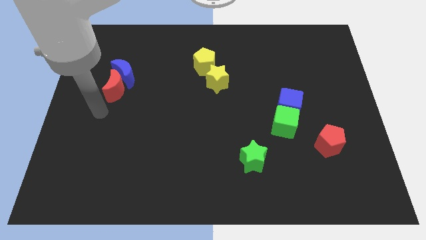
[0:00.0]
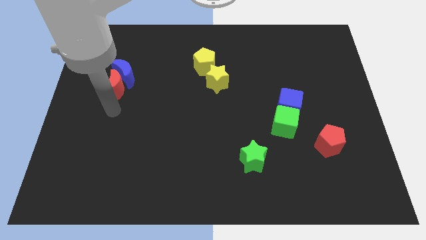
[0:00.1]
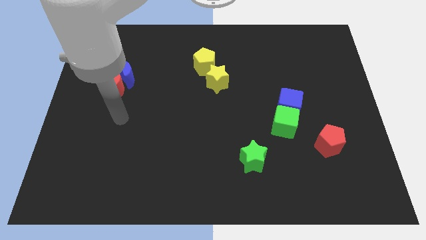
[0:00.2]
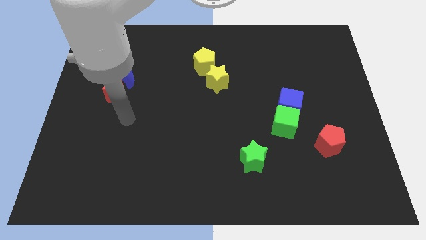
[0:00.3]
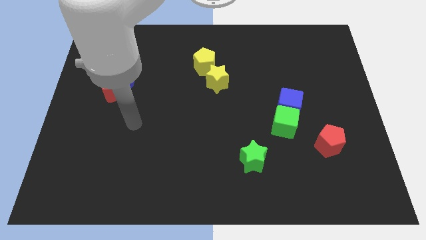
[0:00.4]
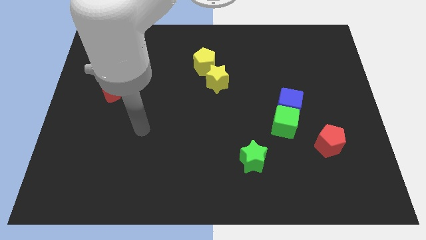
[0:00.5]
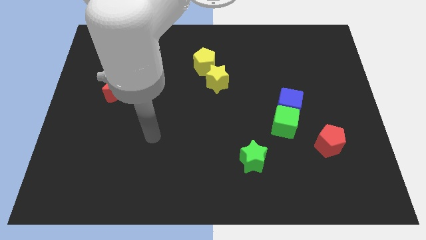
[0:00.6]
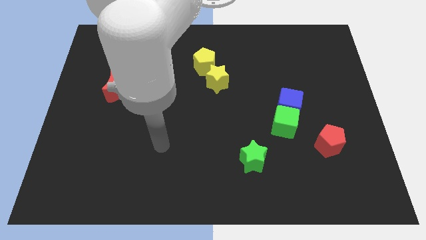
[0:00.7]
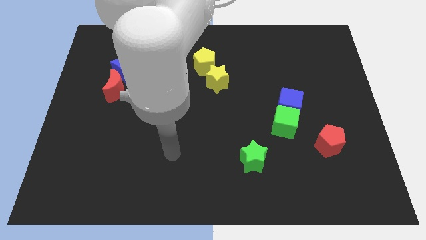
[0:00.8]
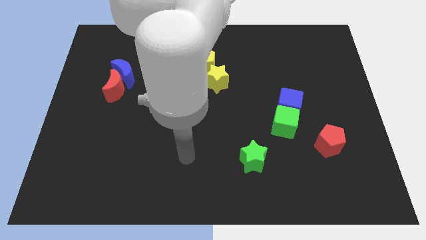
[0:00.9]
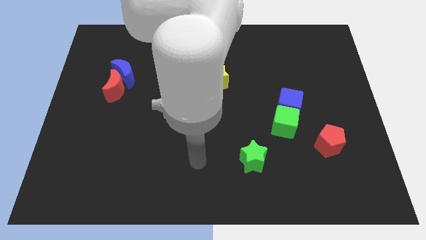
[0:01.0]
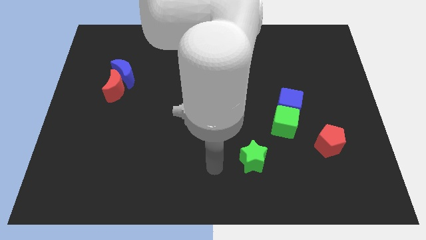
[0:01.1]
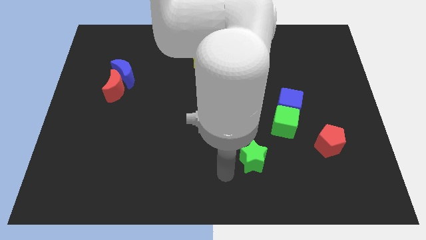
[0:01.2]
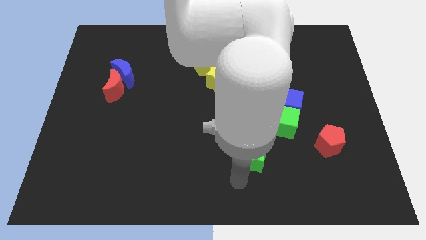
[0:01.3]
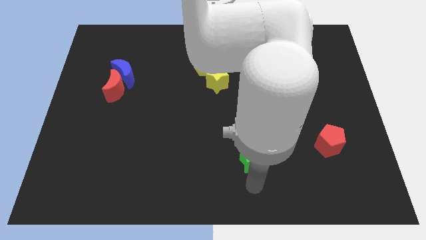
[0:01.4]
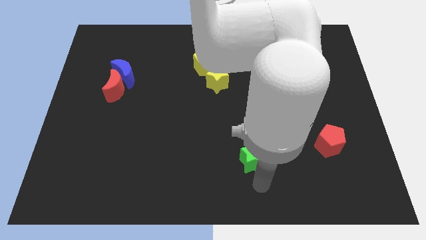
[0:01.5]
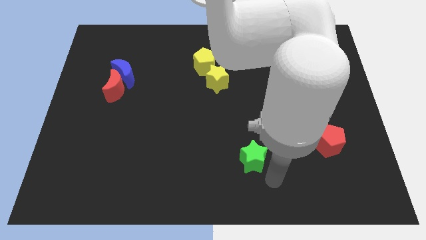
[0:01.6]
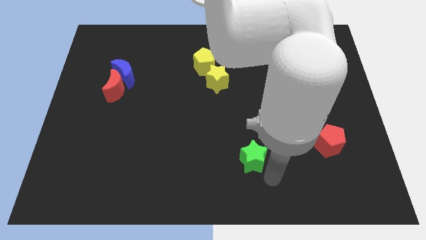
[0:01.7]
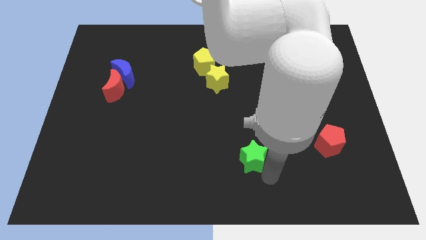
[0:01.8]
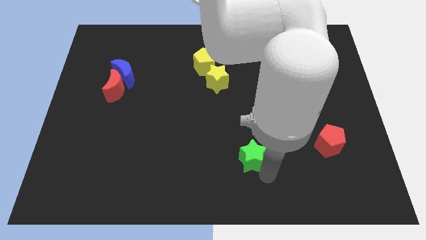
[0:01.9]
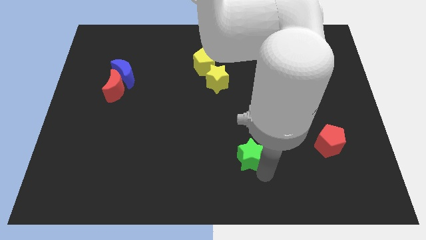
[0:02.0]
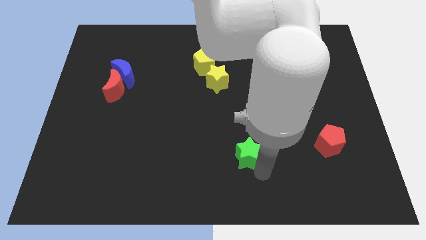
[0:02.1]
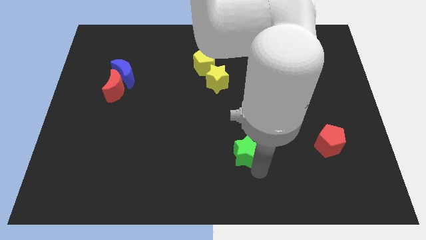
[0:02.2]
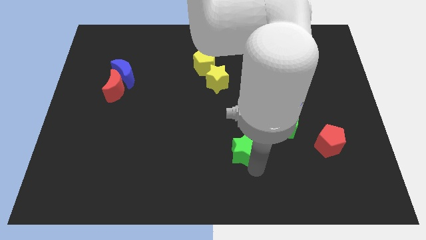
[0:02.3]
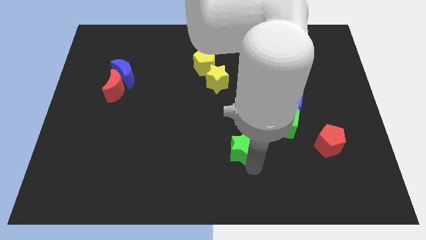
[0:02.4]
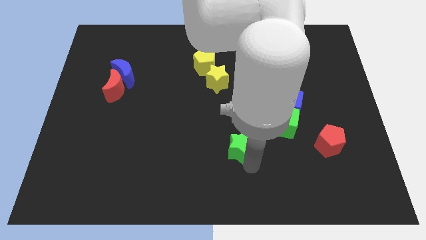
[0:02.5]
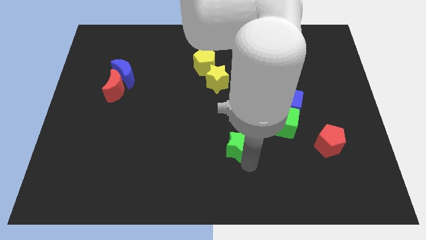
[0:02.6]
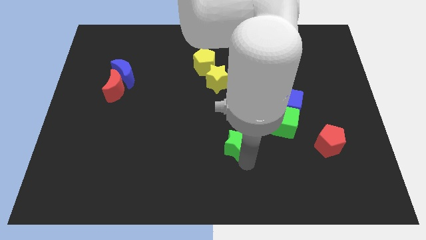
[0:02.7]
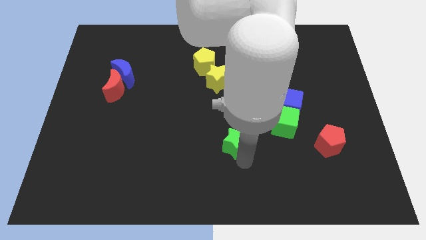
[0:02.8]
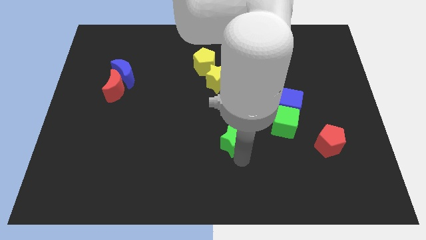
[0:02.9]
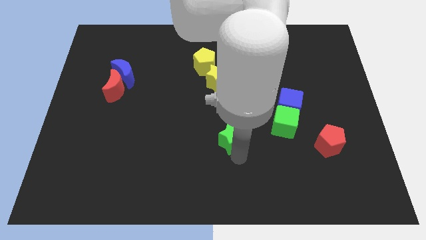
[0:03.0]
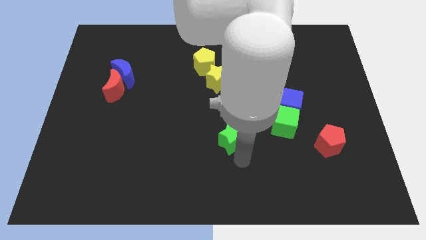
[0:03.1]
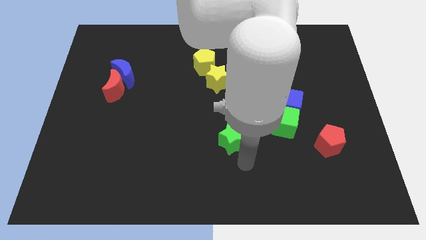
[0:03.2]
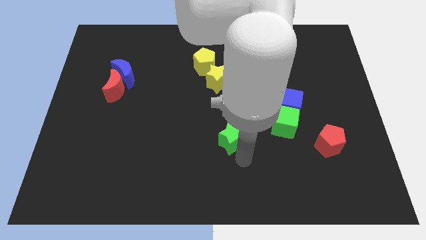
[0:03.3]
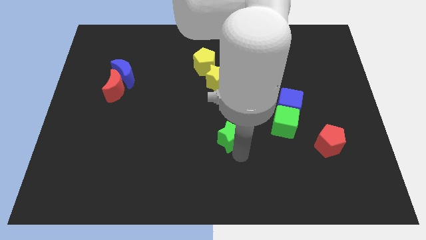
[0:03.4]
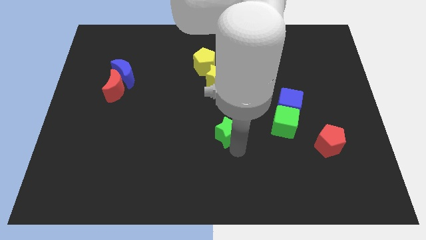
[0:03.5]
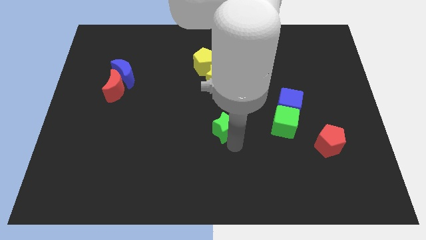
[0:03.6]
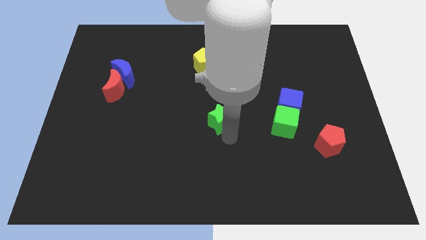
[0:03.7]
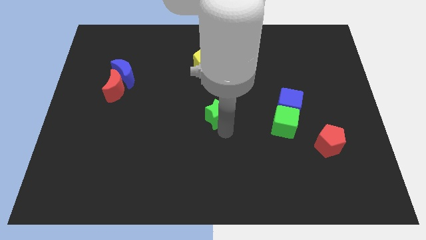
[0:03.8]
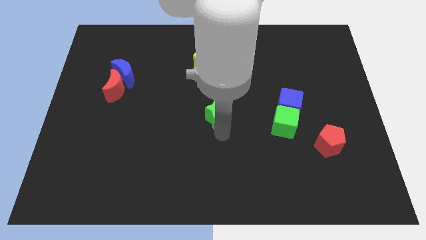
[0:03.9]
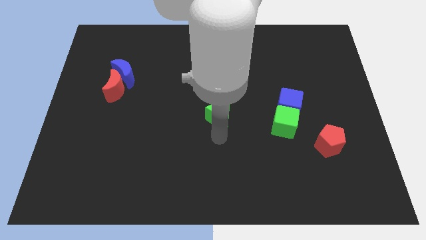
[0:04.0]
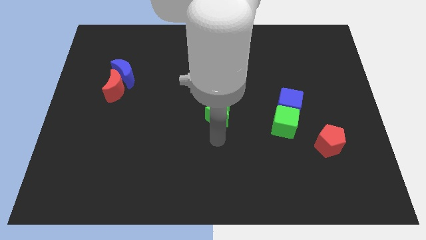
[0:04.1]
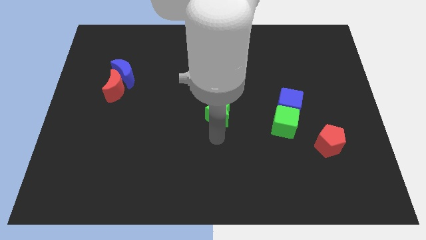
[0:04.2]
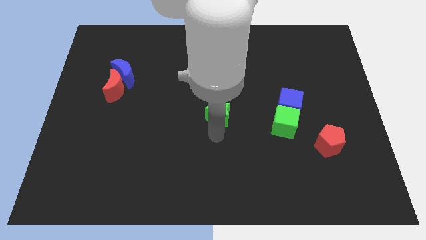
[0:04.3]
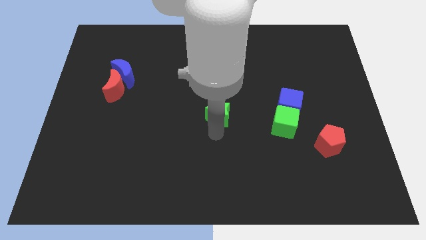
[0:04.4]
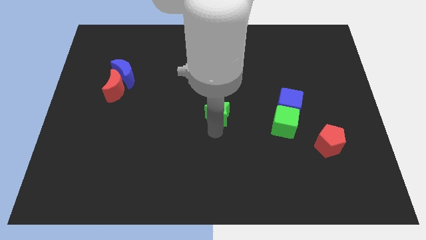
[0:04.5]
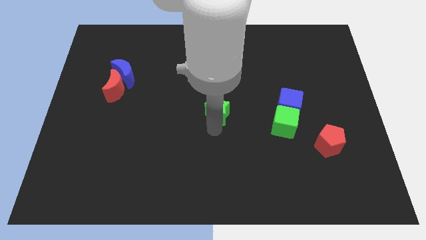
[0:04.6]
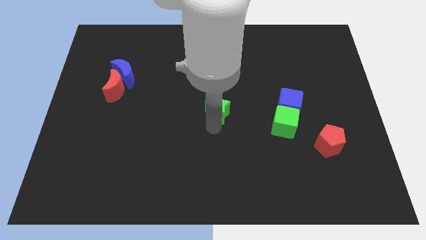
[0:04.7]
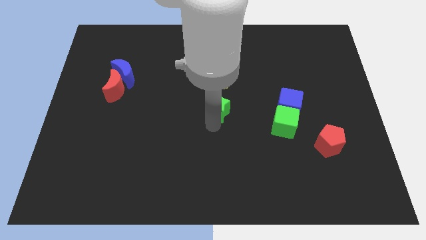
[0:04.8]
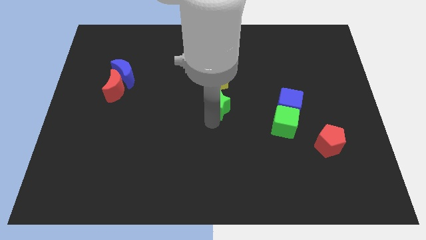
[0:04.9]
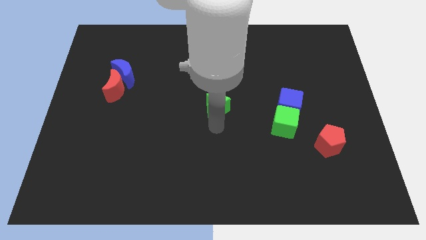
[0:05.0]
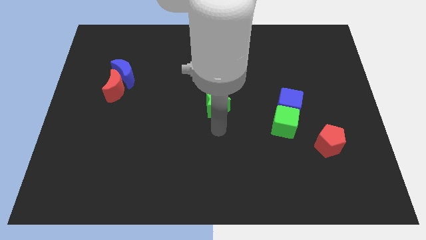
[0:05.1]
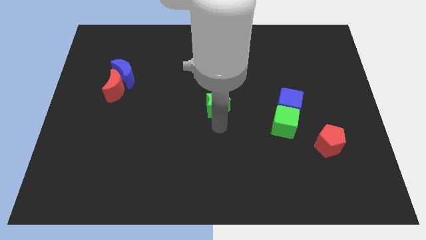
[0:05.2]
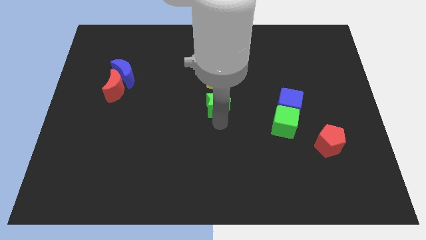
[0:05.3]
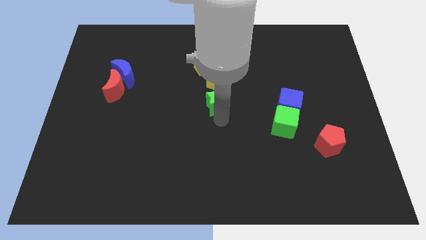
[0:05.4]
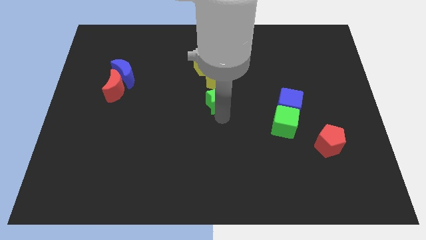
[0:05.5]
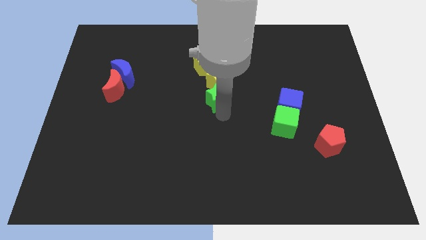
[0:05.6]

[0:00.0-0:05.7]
move the green star towards the yellow star
